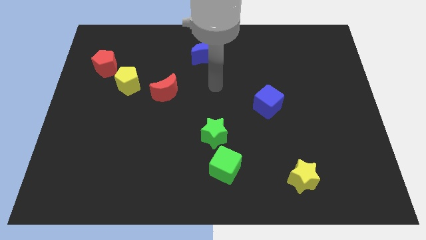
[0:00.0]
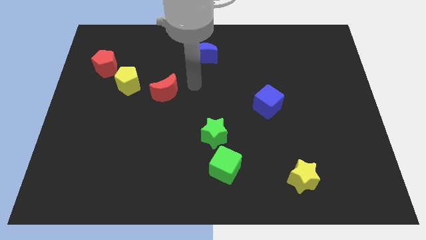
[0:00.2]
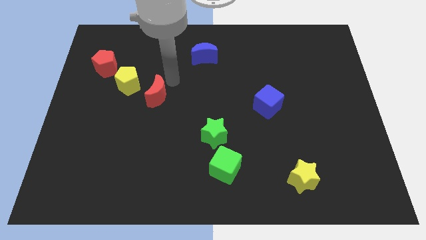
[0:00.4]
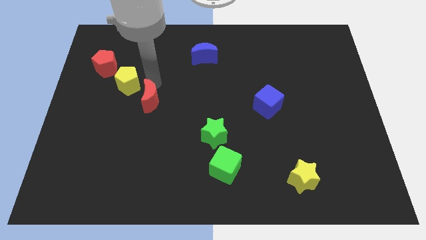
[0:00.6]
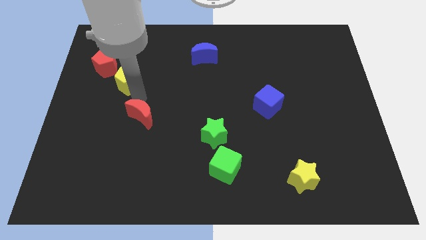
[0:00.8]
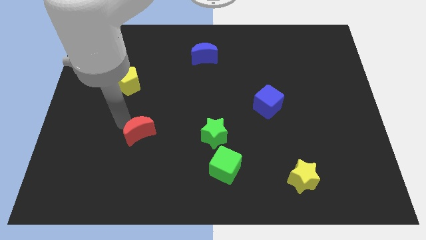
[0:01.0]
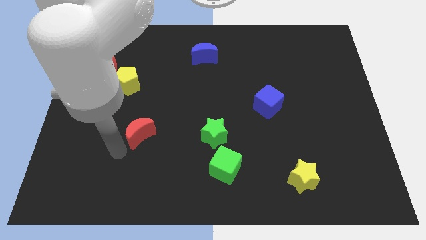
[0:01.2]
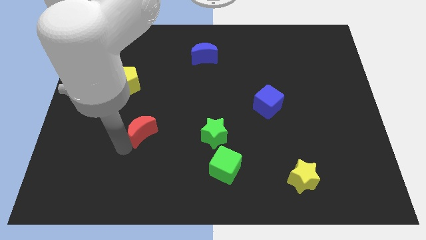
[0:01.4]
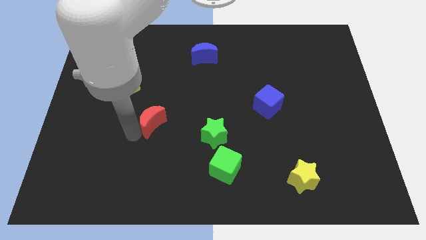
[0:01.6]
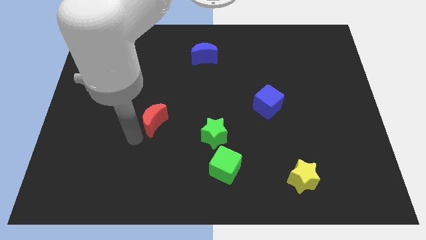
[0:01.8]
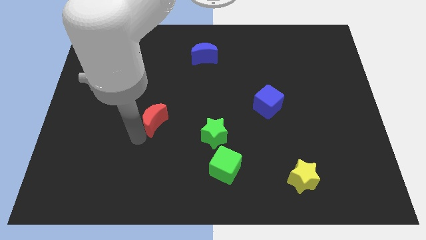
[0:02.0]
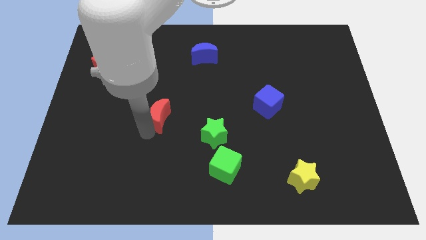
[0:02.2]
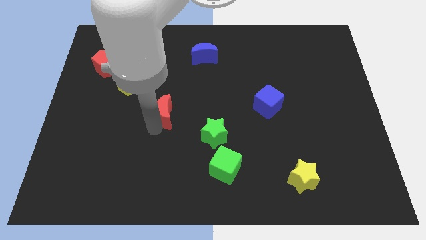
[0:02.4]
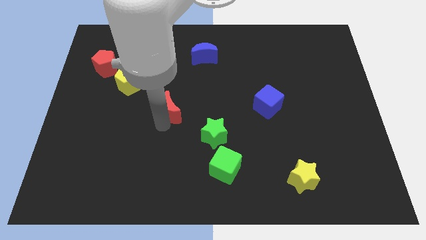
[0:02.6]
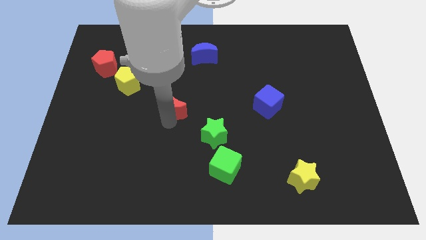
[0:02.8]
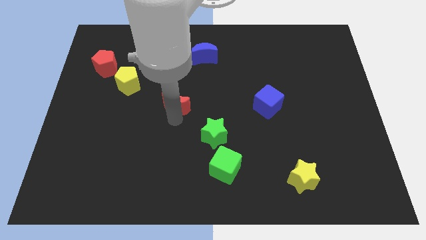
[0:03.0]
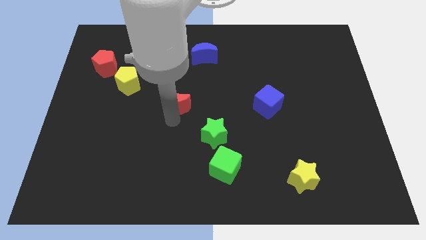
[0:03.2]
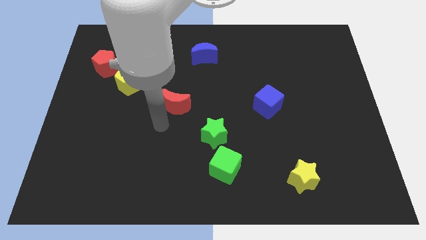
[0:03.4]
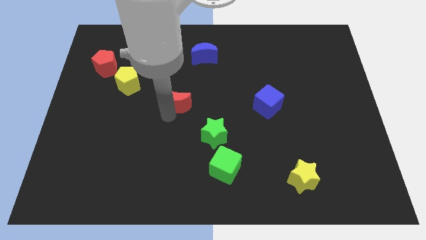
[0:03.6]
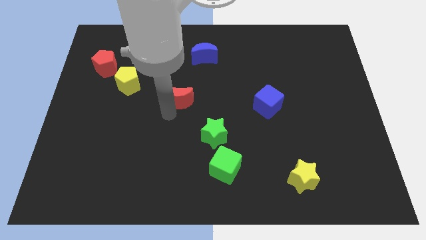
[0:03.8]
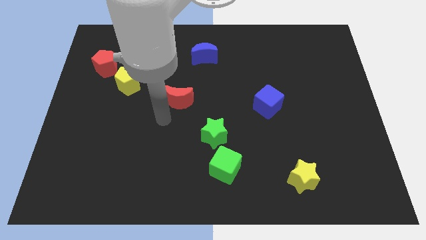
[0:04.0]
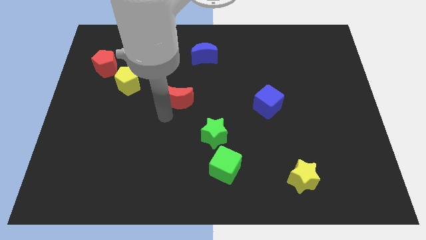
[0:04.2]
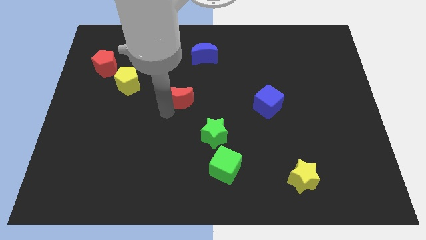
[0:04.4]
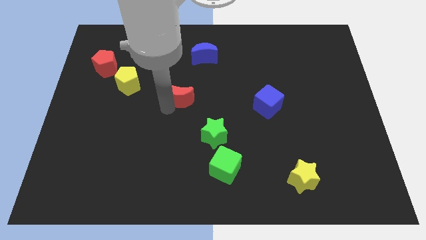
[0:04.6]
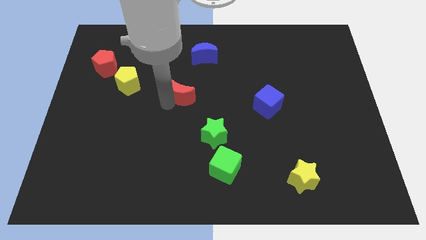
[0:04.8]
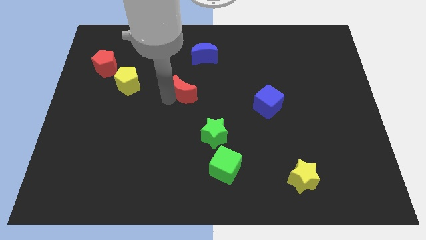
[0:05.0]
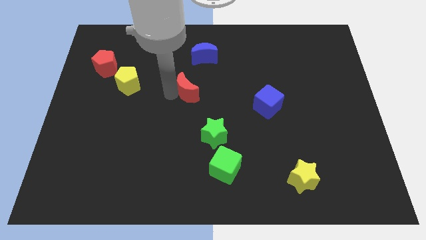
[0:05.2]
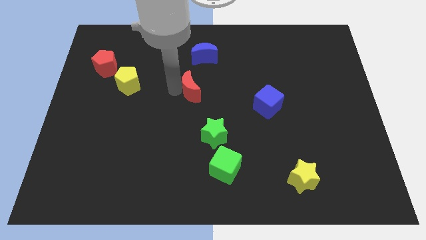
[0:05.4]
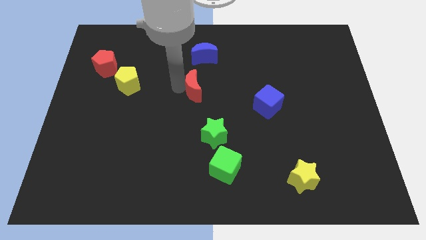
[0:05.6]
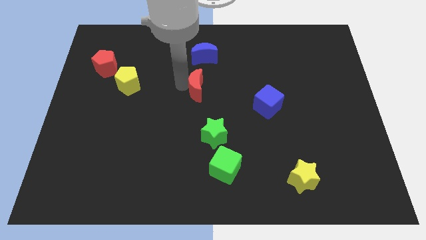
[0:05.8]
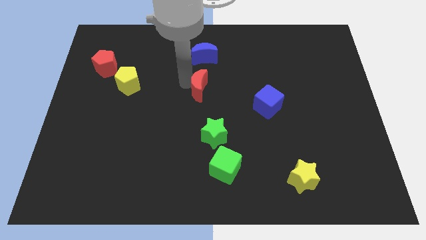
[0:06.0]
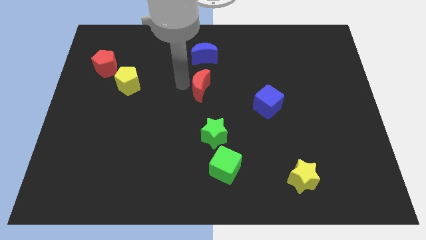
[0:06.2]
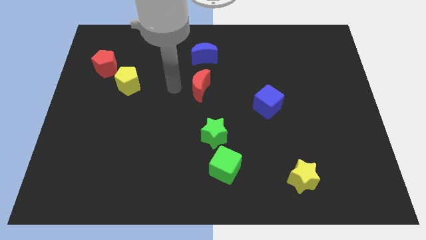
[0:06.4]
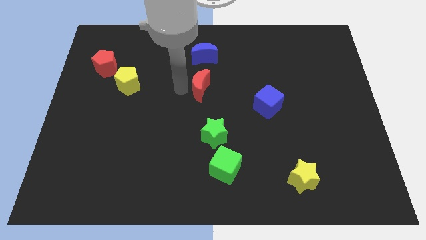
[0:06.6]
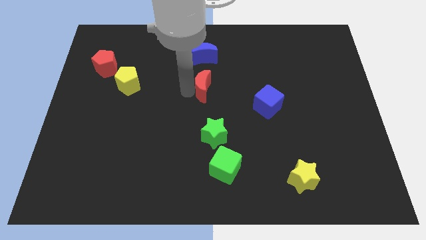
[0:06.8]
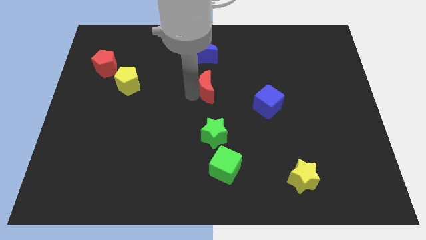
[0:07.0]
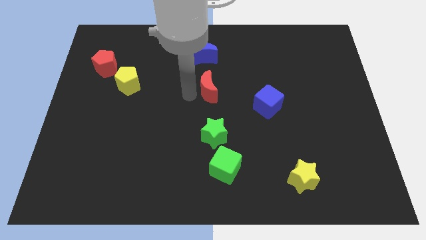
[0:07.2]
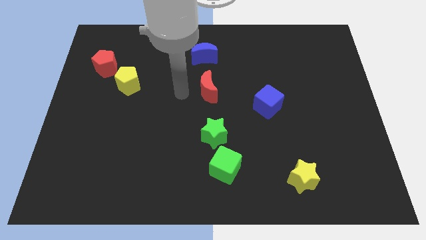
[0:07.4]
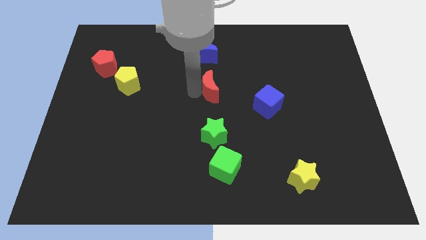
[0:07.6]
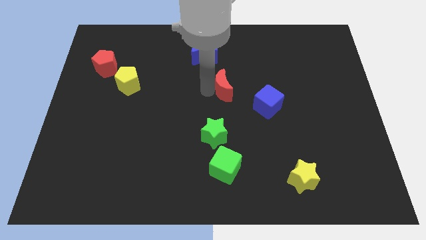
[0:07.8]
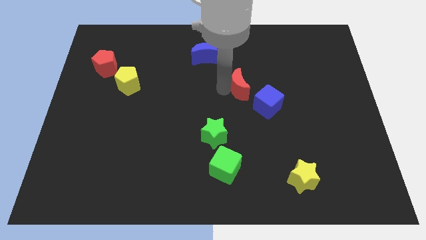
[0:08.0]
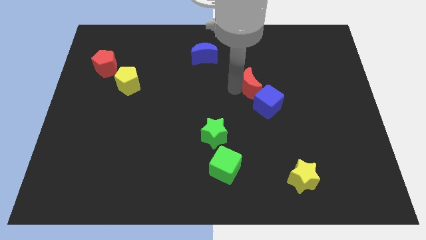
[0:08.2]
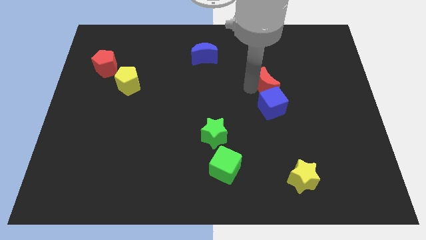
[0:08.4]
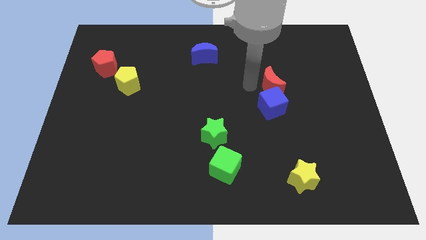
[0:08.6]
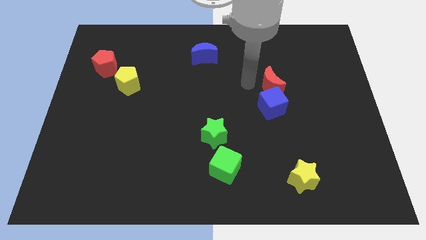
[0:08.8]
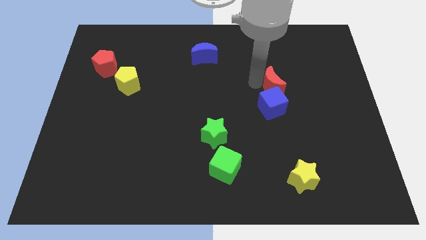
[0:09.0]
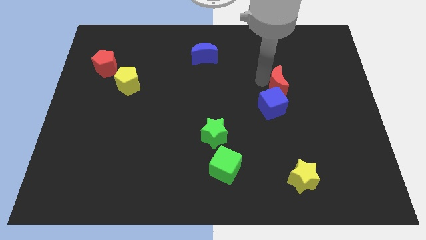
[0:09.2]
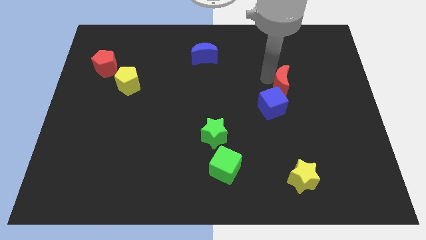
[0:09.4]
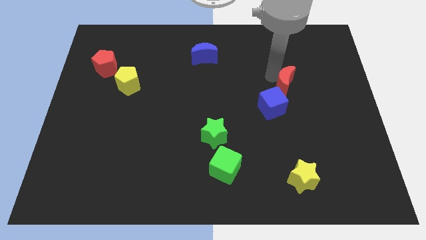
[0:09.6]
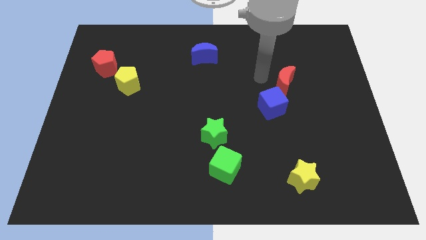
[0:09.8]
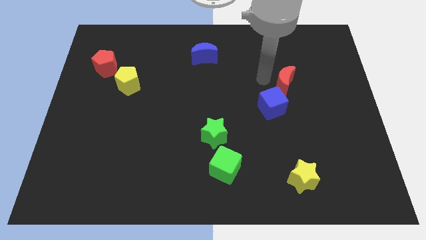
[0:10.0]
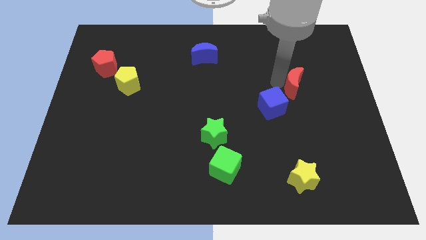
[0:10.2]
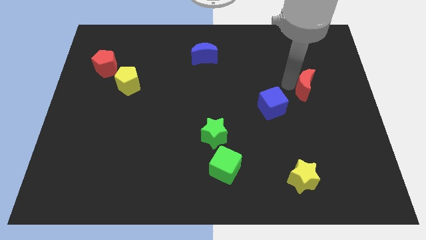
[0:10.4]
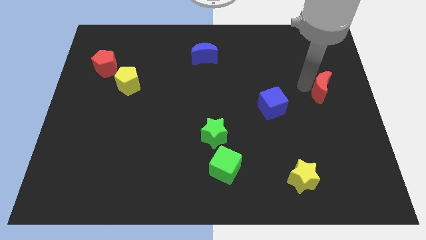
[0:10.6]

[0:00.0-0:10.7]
push the red moon to the center right

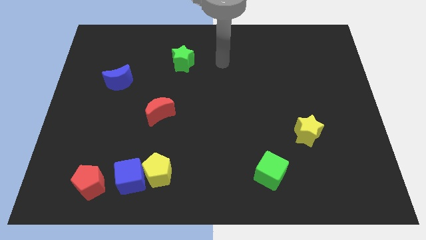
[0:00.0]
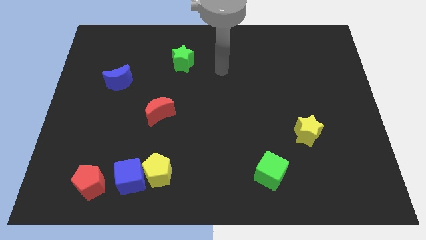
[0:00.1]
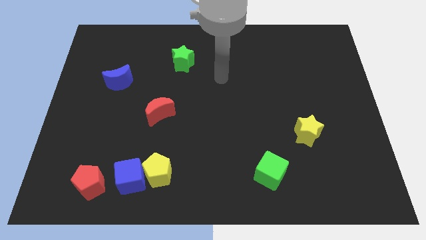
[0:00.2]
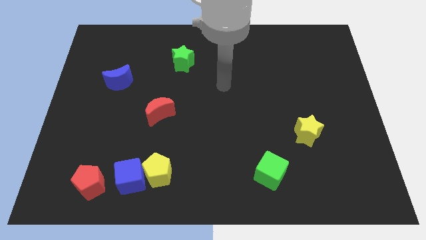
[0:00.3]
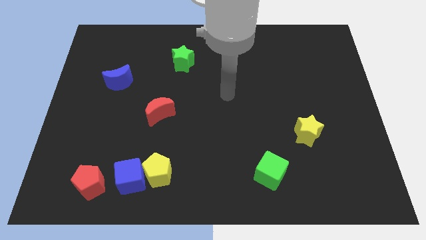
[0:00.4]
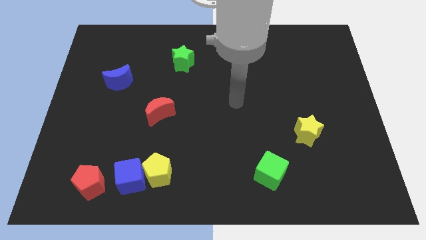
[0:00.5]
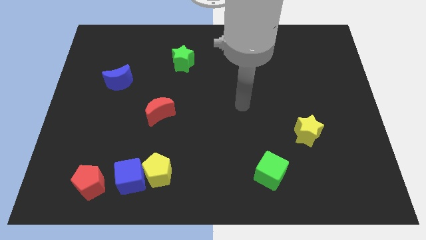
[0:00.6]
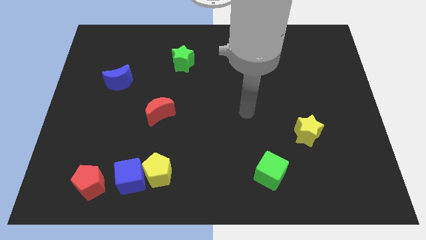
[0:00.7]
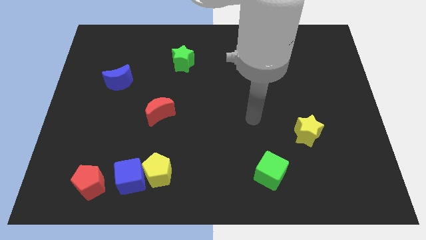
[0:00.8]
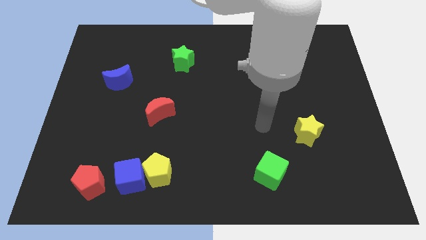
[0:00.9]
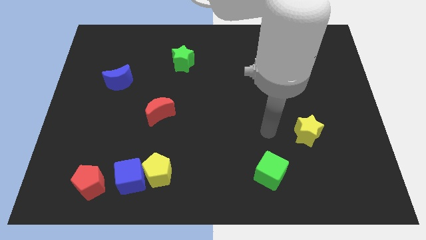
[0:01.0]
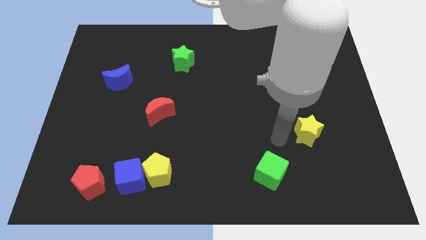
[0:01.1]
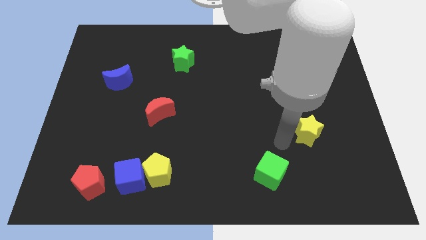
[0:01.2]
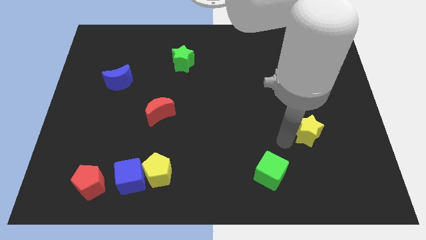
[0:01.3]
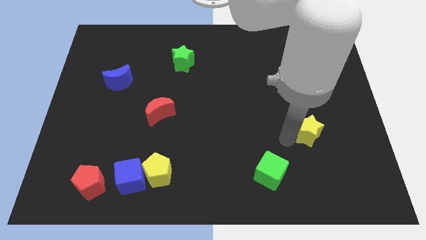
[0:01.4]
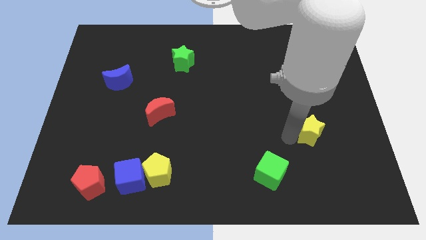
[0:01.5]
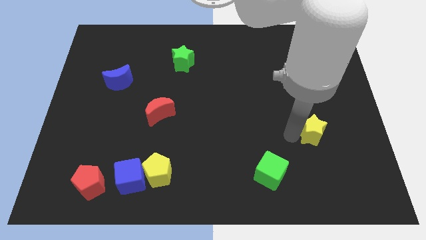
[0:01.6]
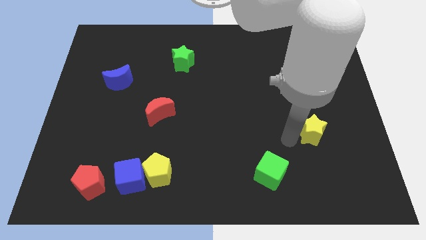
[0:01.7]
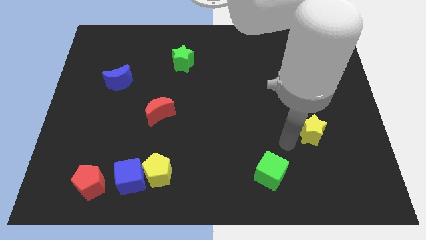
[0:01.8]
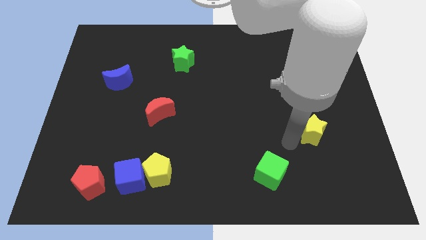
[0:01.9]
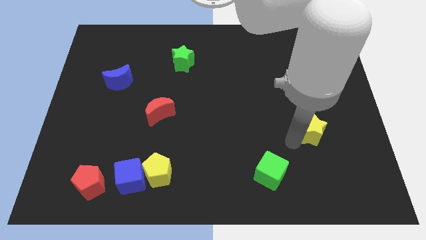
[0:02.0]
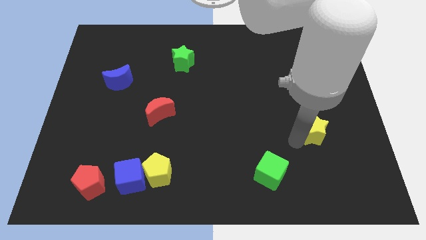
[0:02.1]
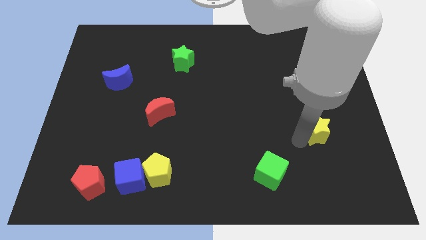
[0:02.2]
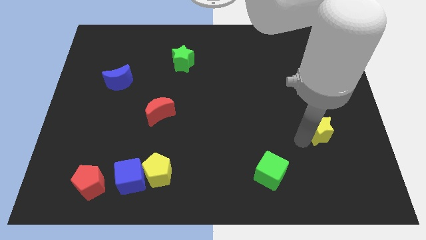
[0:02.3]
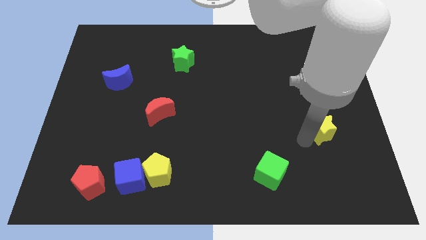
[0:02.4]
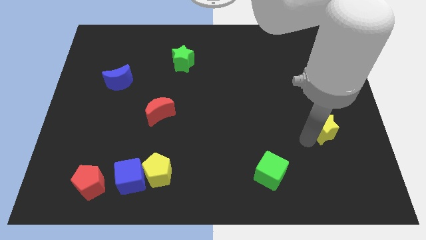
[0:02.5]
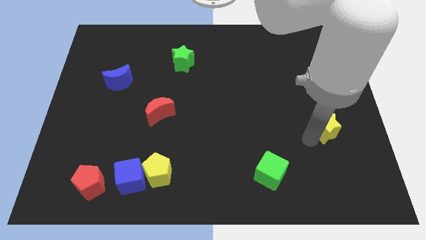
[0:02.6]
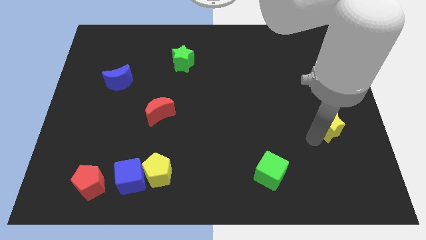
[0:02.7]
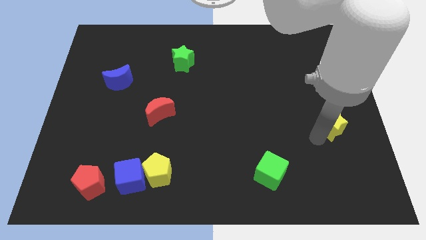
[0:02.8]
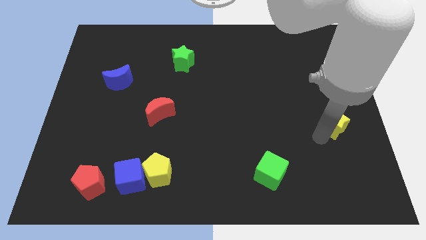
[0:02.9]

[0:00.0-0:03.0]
slide the yellow star to the right side of the board
